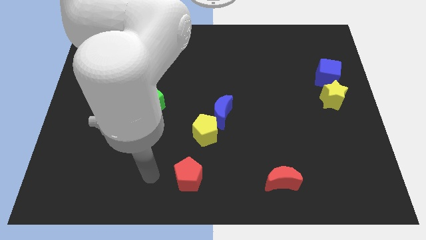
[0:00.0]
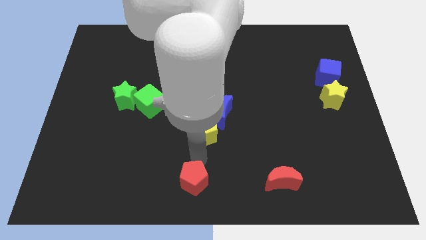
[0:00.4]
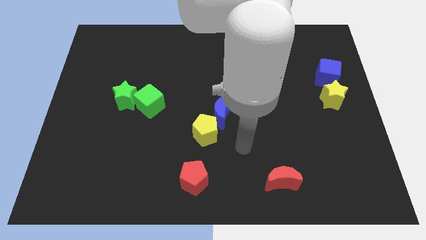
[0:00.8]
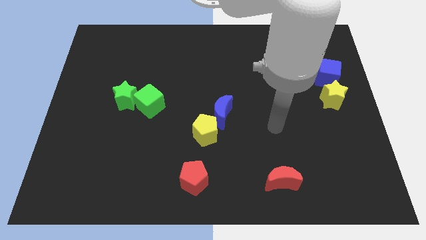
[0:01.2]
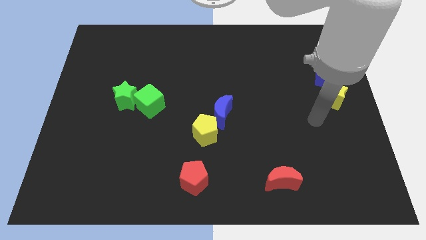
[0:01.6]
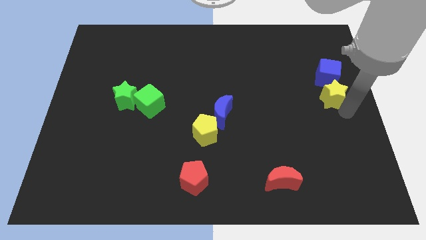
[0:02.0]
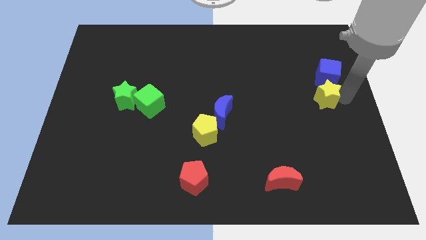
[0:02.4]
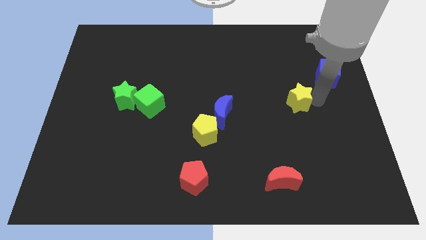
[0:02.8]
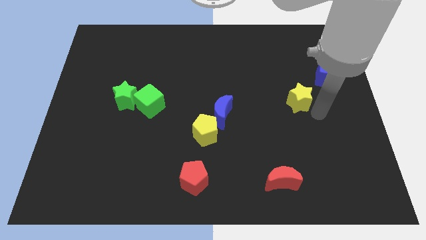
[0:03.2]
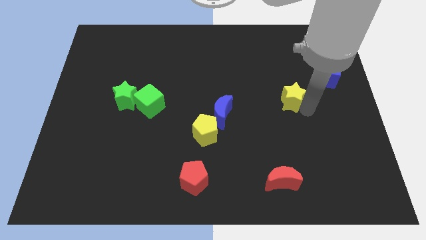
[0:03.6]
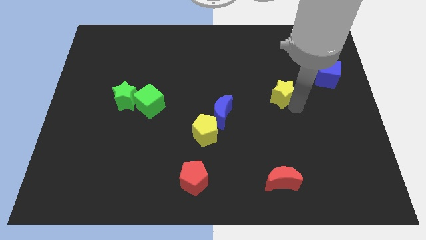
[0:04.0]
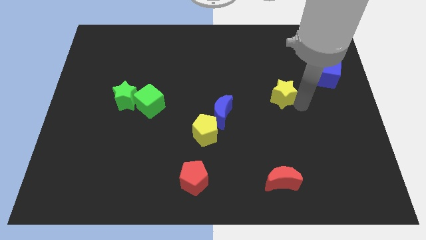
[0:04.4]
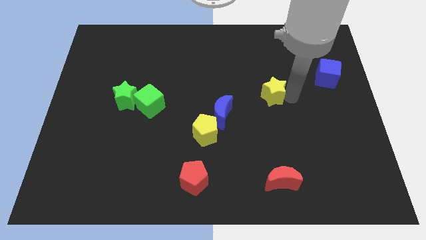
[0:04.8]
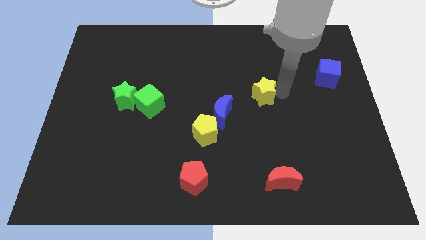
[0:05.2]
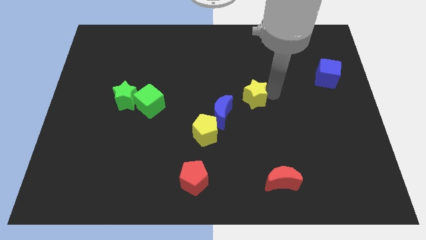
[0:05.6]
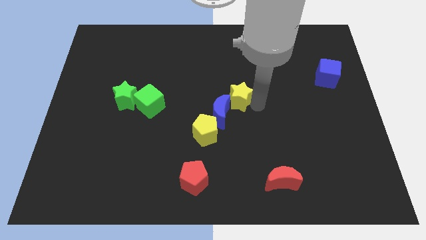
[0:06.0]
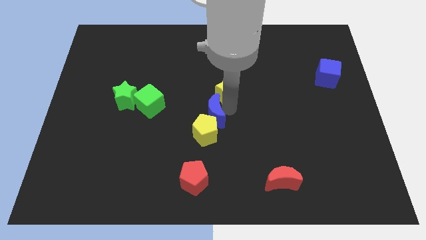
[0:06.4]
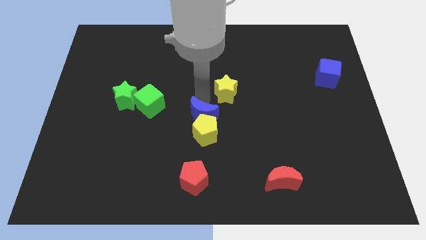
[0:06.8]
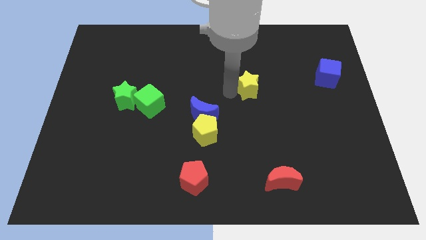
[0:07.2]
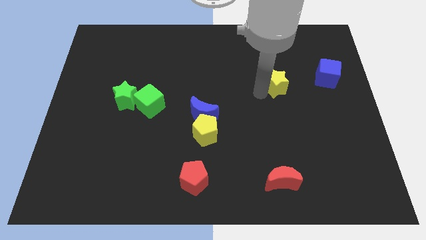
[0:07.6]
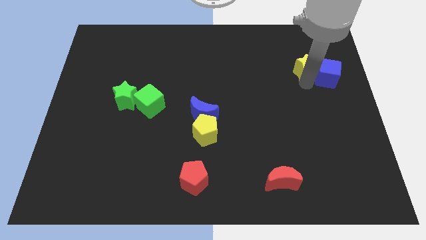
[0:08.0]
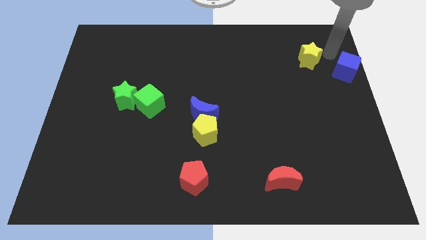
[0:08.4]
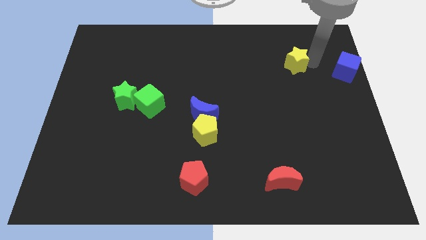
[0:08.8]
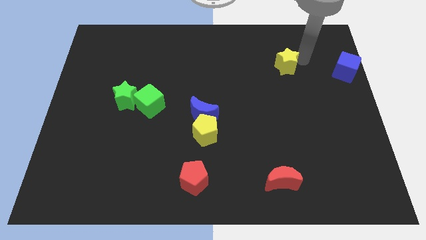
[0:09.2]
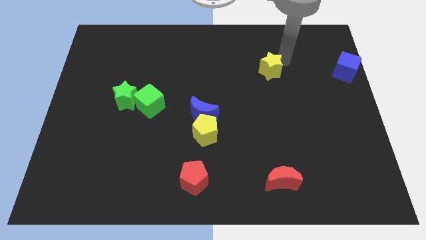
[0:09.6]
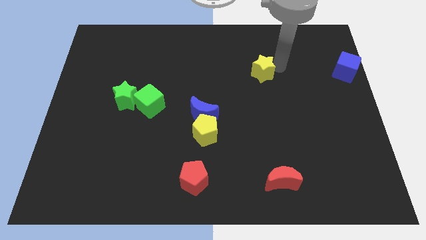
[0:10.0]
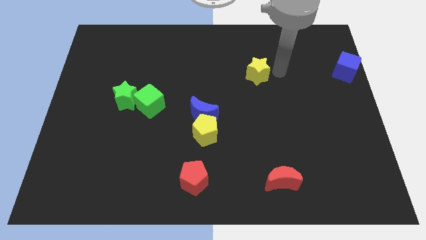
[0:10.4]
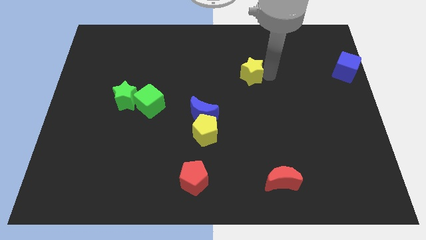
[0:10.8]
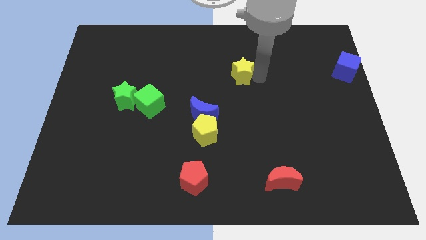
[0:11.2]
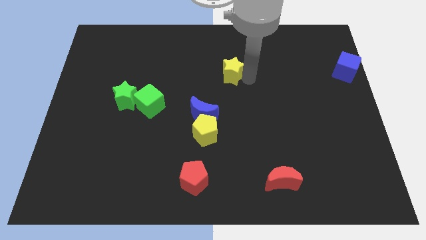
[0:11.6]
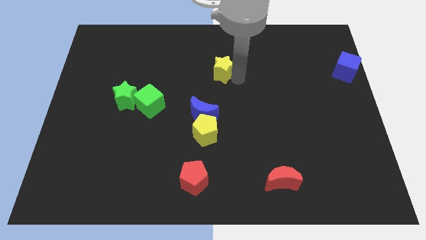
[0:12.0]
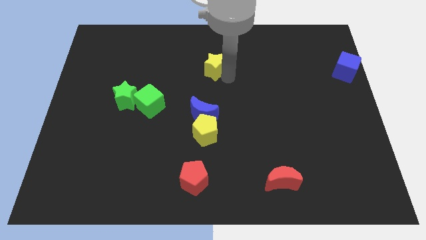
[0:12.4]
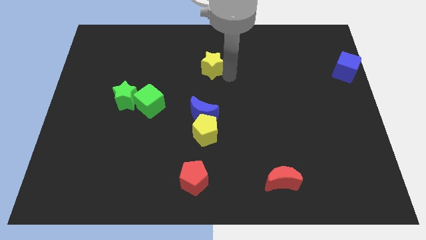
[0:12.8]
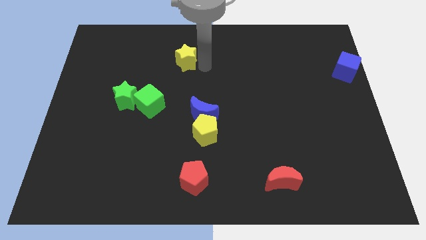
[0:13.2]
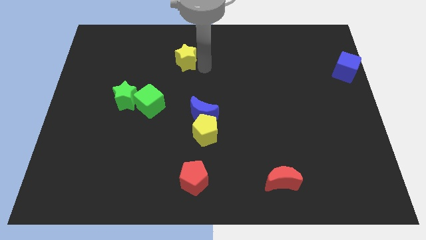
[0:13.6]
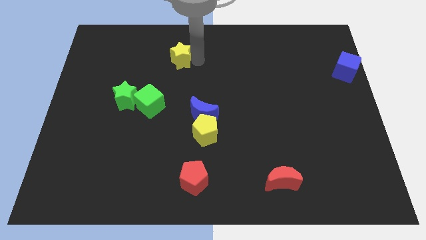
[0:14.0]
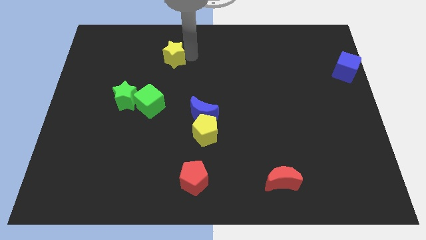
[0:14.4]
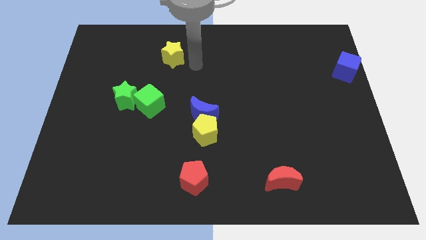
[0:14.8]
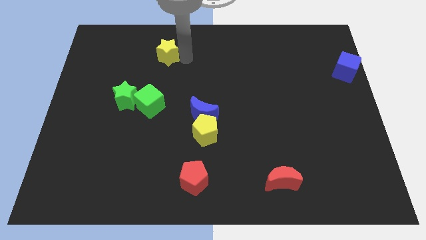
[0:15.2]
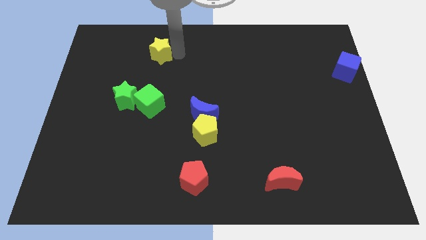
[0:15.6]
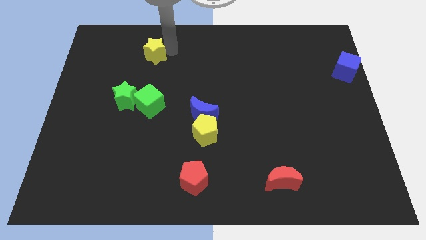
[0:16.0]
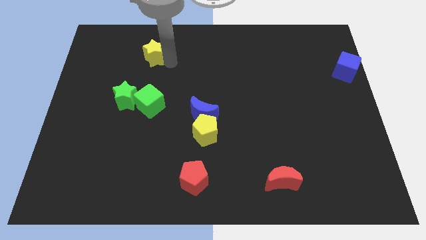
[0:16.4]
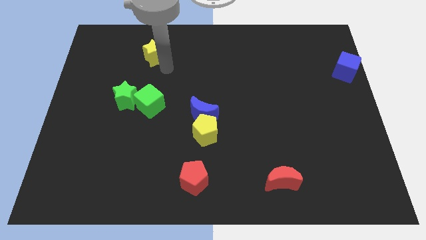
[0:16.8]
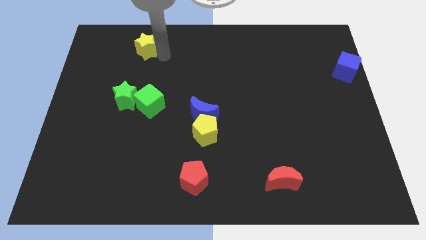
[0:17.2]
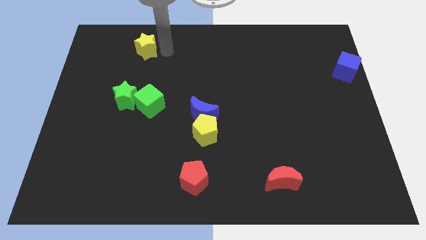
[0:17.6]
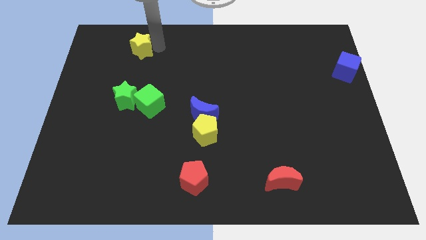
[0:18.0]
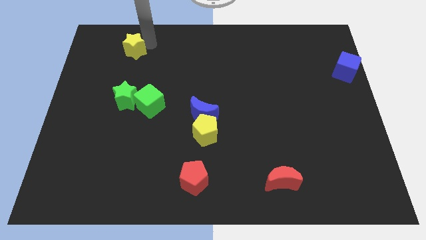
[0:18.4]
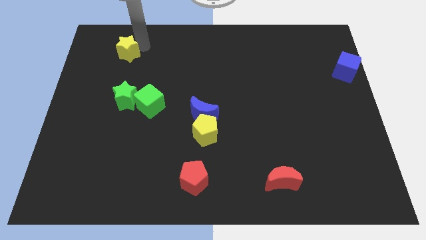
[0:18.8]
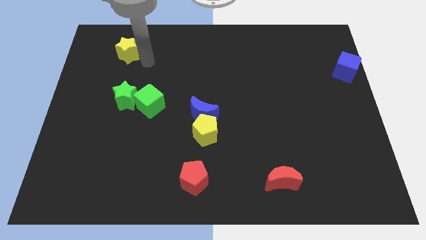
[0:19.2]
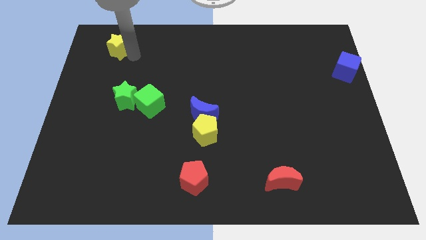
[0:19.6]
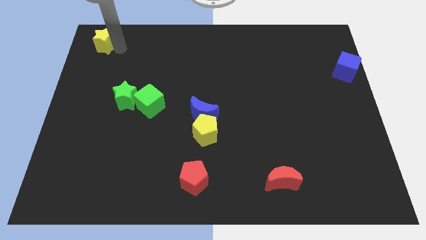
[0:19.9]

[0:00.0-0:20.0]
slide the yellow star to the top left corner

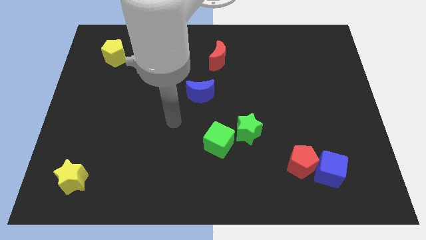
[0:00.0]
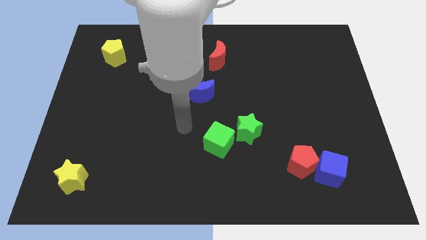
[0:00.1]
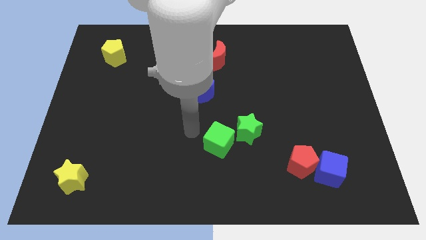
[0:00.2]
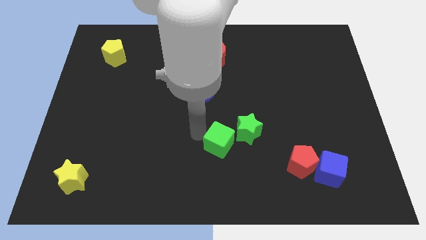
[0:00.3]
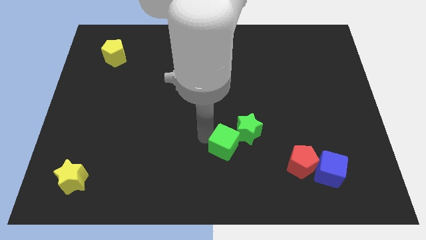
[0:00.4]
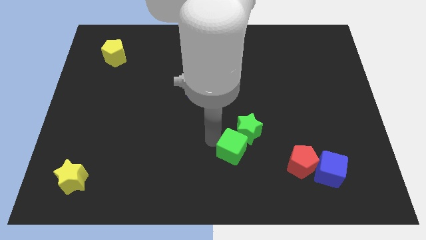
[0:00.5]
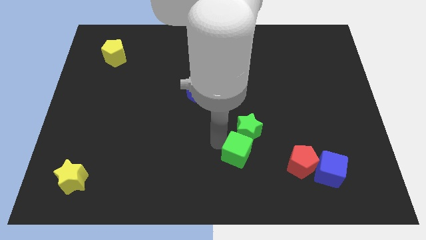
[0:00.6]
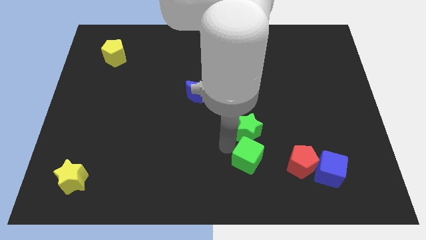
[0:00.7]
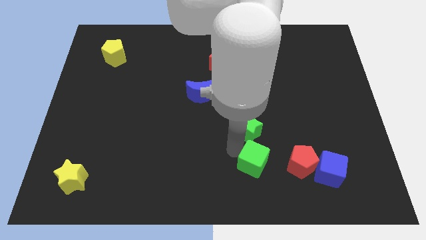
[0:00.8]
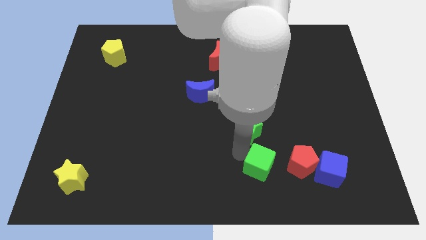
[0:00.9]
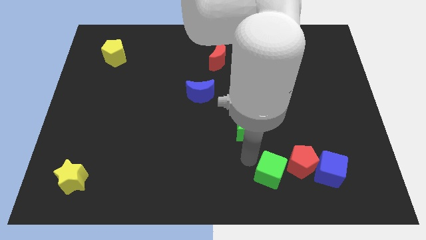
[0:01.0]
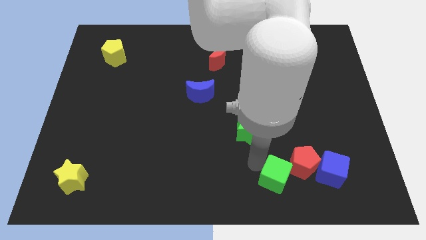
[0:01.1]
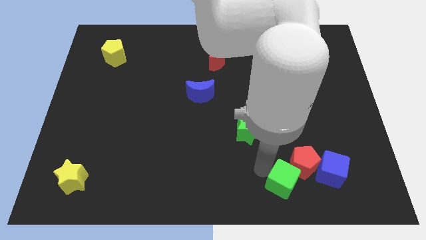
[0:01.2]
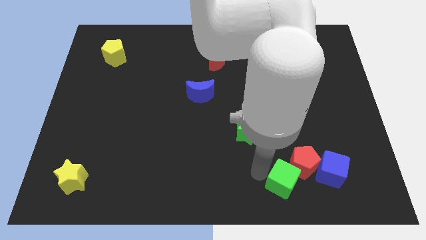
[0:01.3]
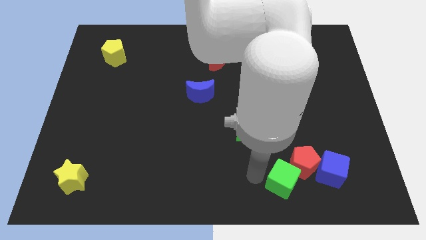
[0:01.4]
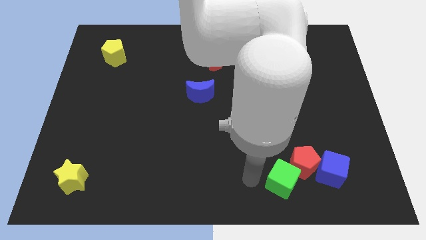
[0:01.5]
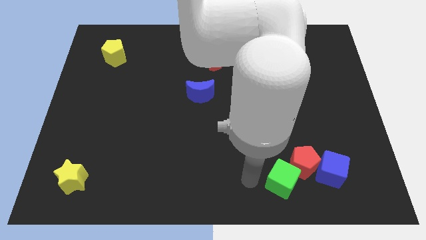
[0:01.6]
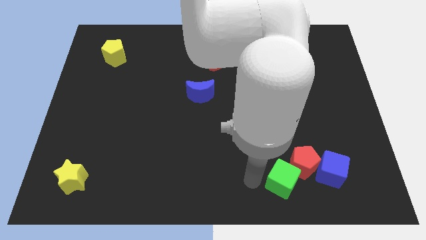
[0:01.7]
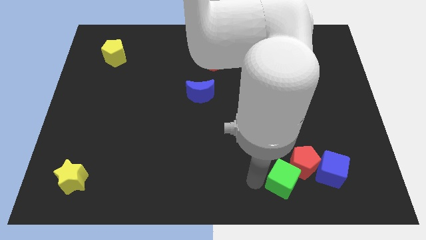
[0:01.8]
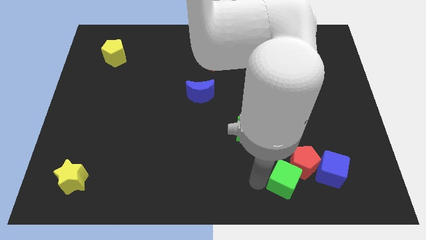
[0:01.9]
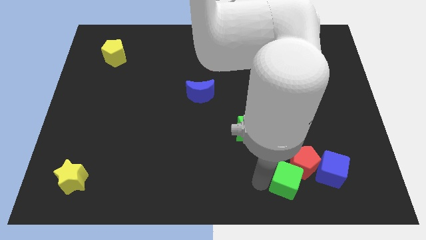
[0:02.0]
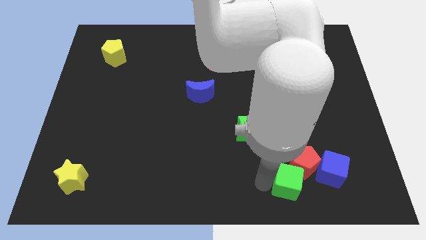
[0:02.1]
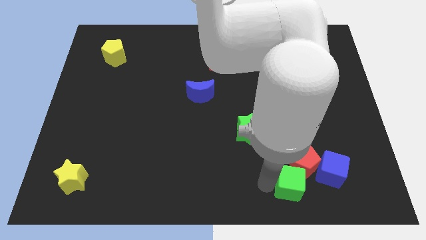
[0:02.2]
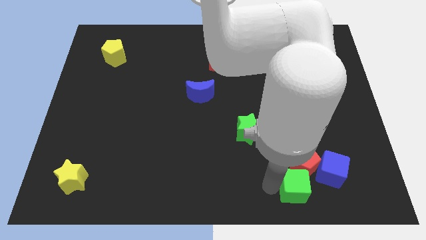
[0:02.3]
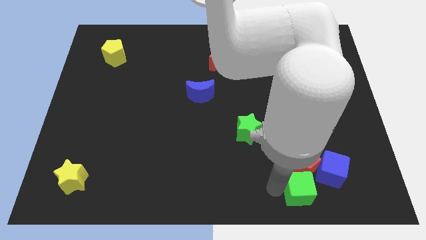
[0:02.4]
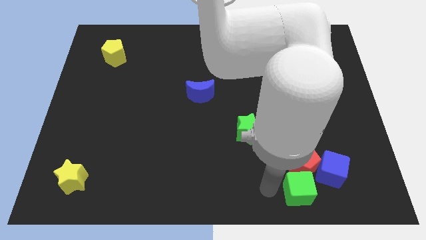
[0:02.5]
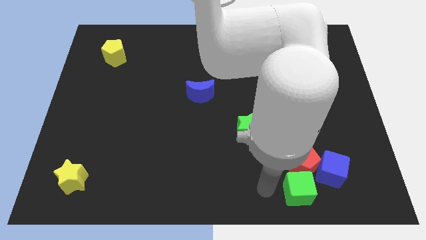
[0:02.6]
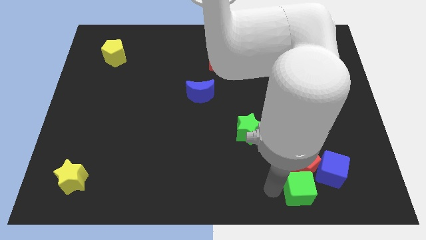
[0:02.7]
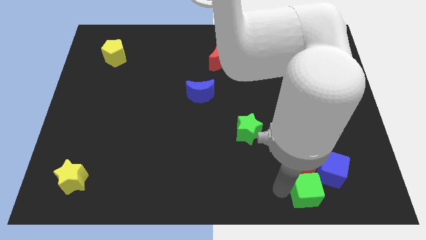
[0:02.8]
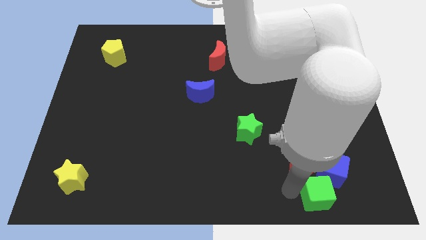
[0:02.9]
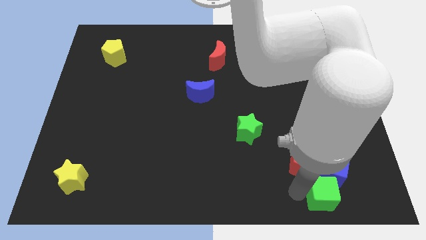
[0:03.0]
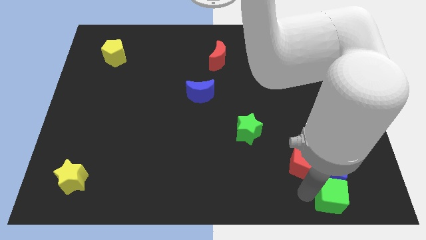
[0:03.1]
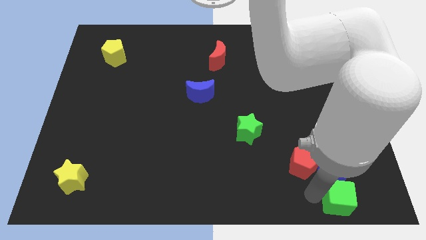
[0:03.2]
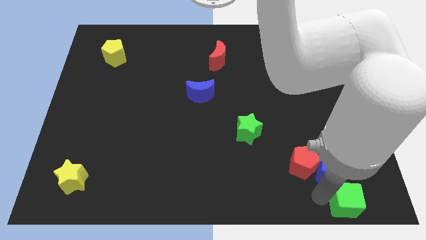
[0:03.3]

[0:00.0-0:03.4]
put the green cube to the lower right corner
